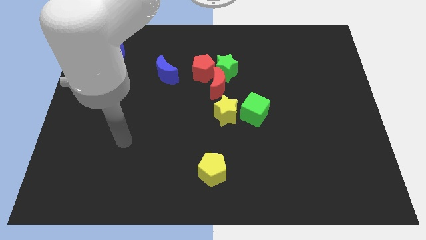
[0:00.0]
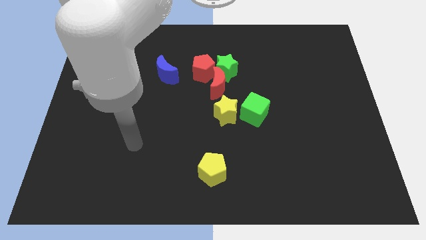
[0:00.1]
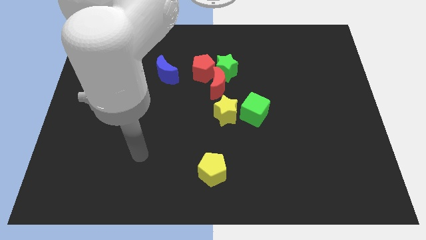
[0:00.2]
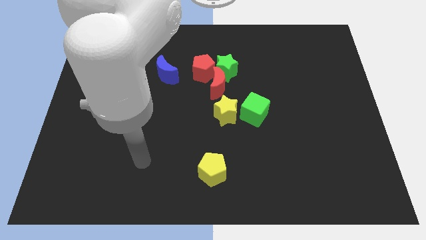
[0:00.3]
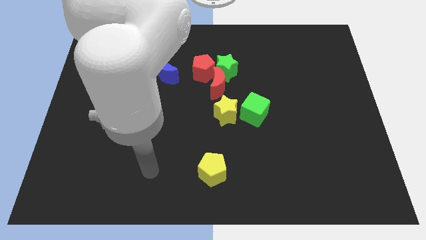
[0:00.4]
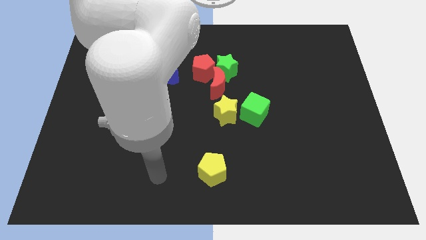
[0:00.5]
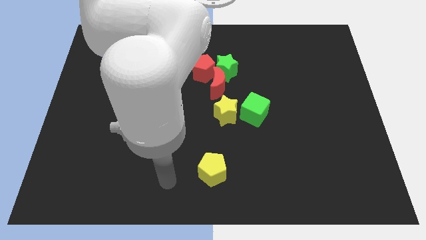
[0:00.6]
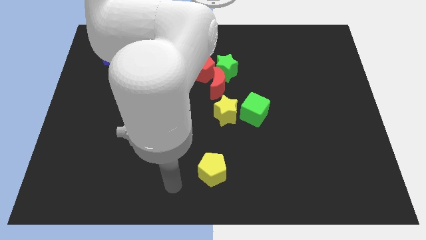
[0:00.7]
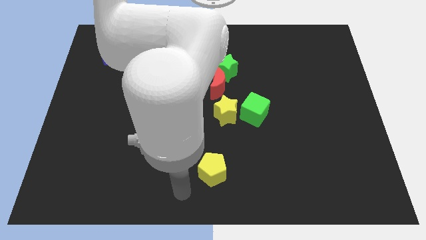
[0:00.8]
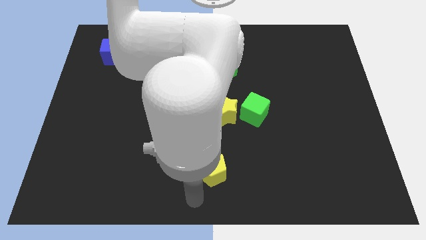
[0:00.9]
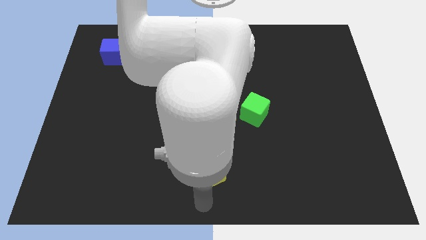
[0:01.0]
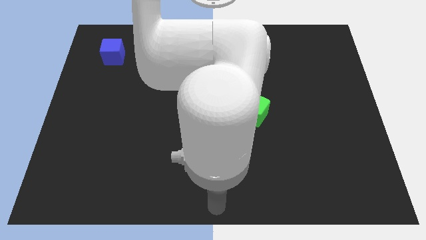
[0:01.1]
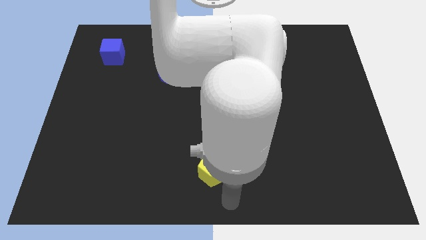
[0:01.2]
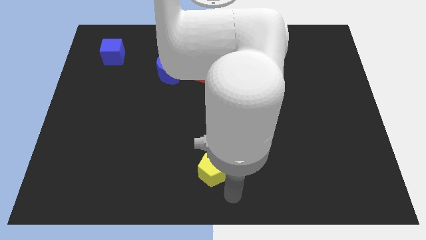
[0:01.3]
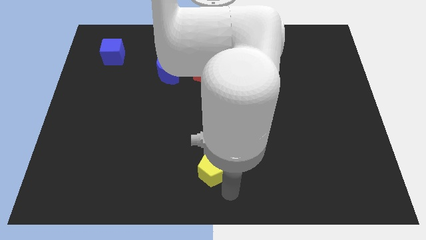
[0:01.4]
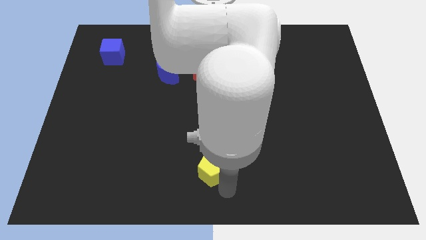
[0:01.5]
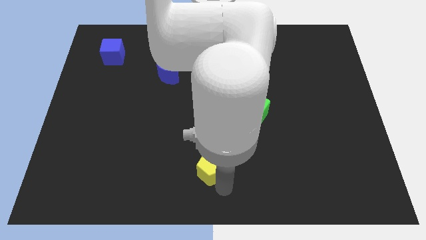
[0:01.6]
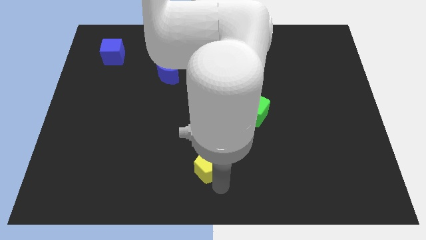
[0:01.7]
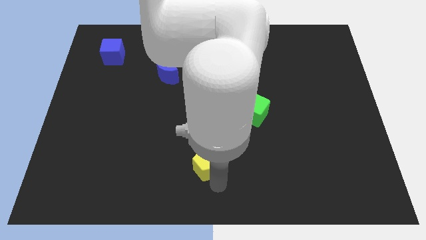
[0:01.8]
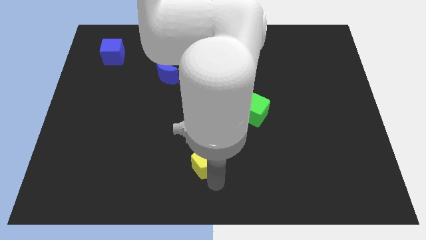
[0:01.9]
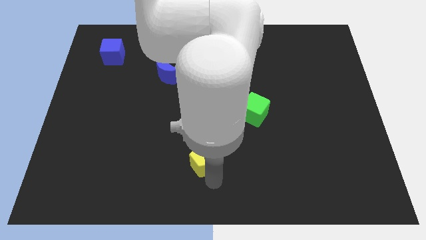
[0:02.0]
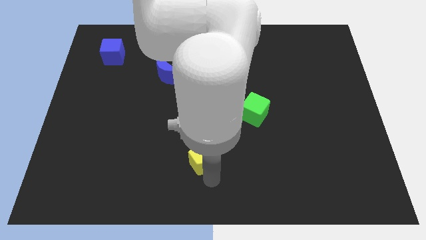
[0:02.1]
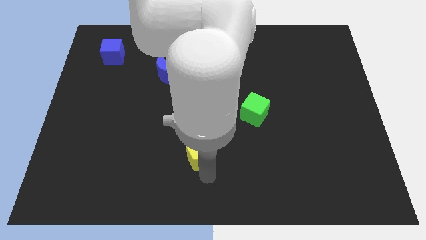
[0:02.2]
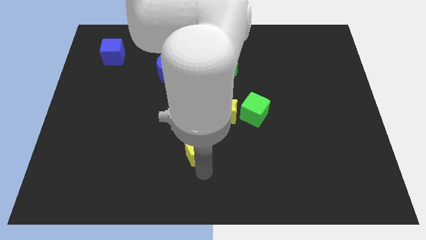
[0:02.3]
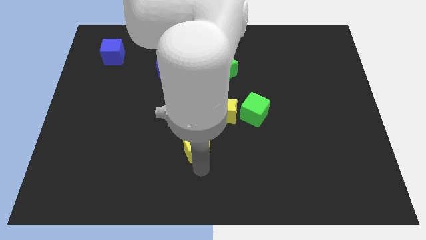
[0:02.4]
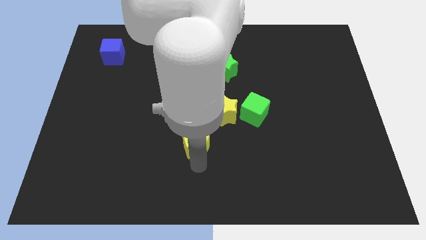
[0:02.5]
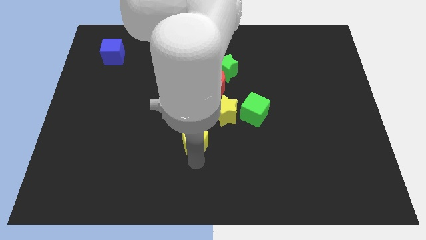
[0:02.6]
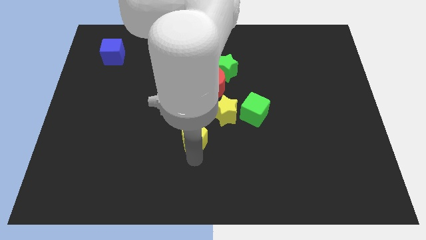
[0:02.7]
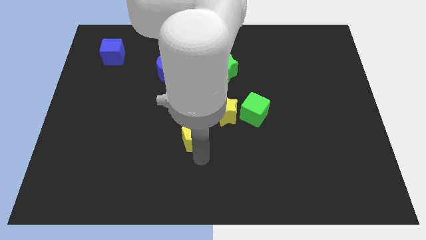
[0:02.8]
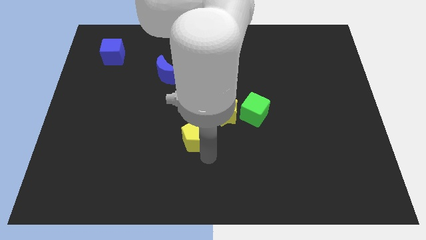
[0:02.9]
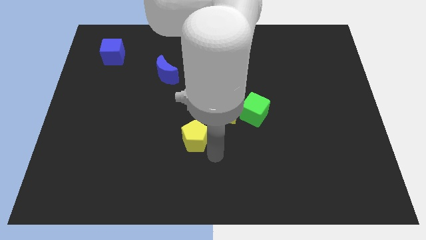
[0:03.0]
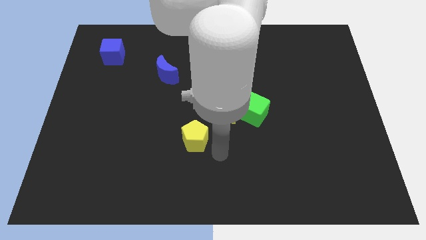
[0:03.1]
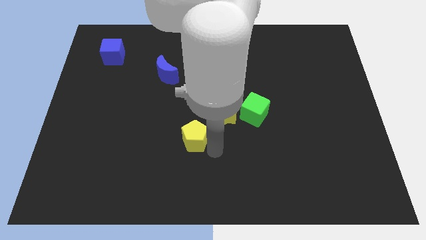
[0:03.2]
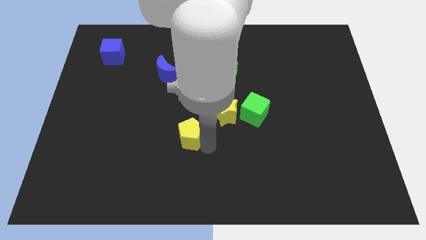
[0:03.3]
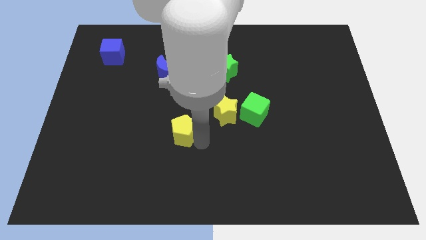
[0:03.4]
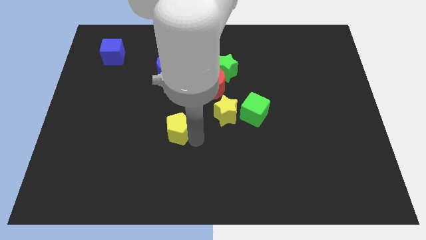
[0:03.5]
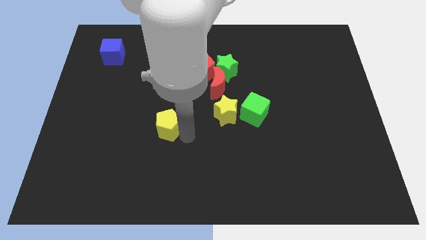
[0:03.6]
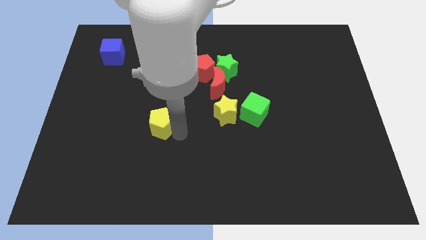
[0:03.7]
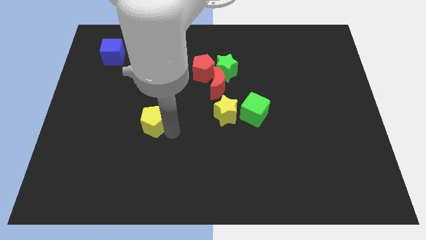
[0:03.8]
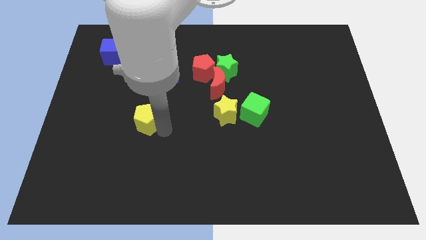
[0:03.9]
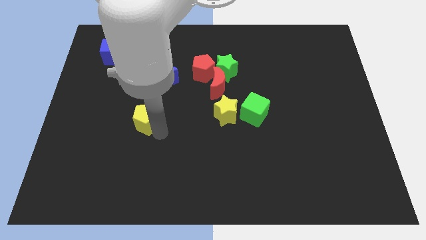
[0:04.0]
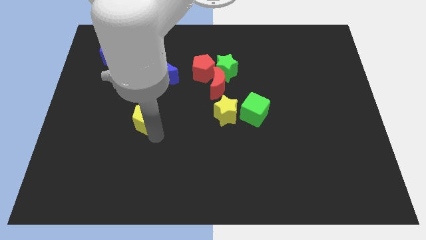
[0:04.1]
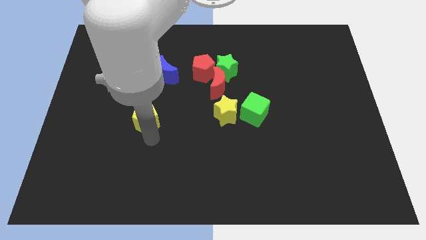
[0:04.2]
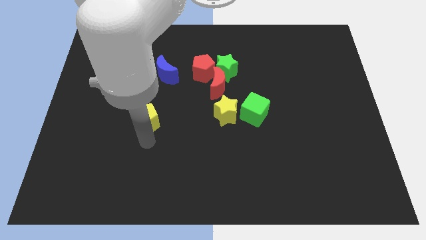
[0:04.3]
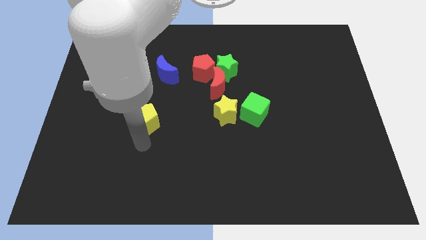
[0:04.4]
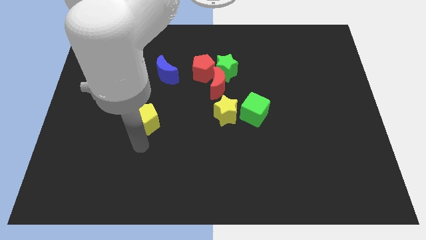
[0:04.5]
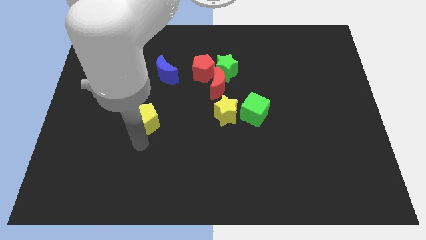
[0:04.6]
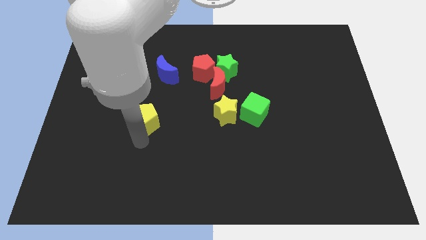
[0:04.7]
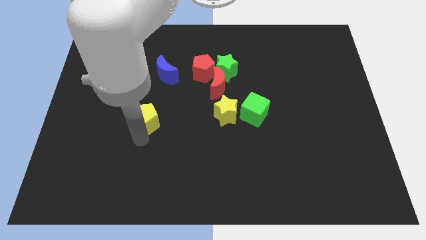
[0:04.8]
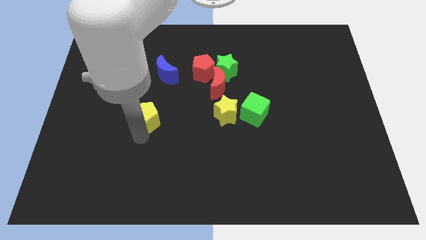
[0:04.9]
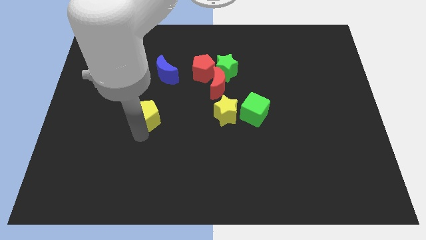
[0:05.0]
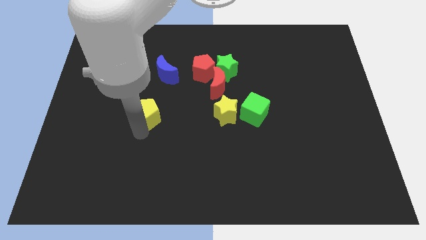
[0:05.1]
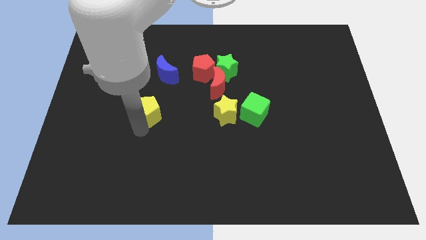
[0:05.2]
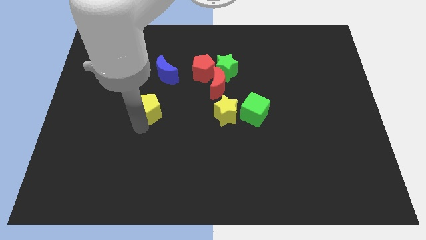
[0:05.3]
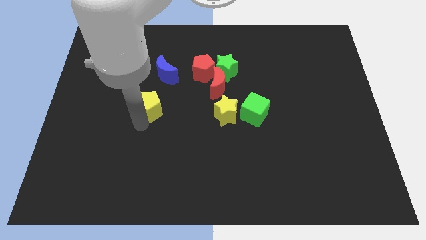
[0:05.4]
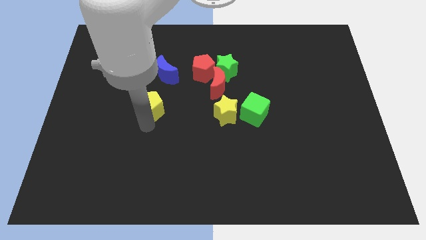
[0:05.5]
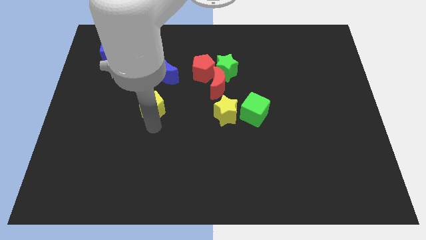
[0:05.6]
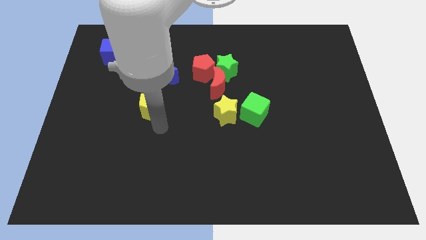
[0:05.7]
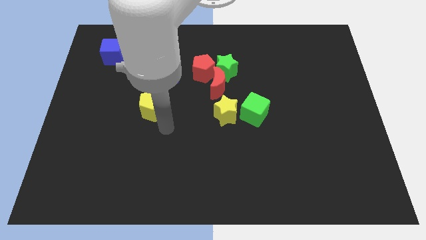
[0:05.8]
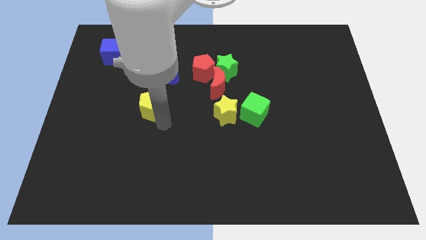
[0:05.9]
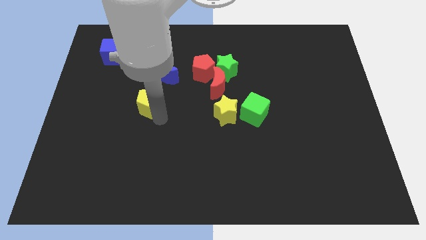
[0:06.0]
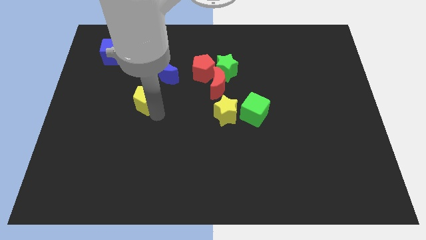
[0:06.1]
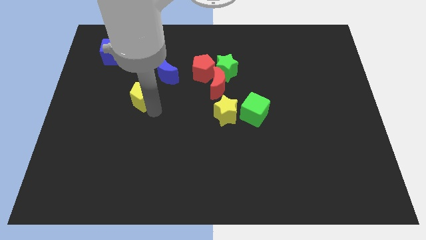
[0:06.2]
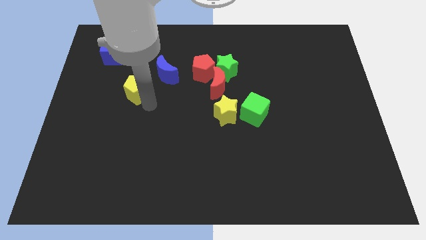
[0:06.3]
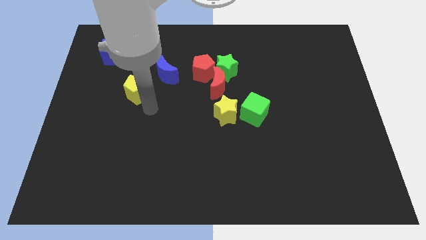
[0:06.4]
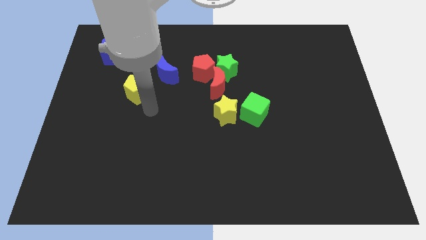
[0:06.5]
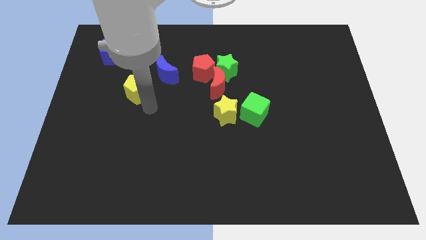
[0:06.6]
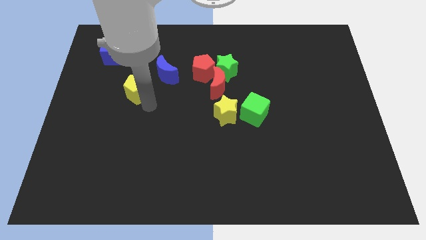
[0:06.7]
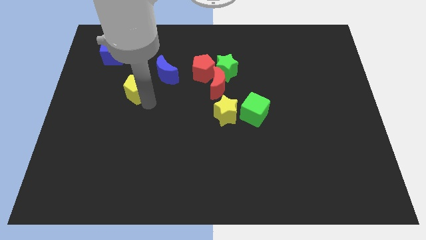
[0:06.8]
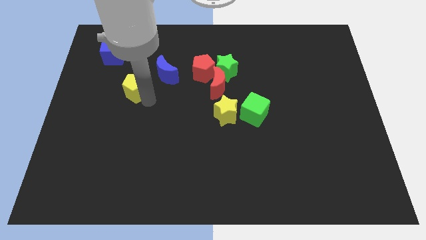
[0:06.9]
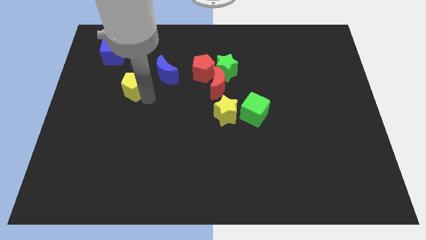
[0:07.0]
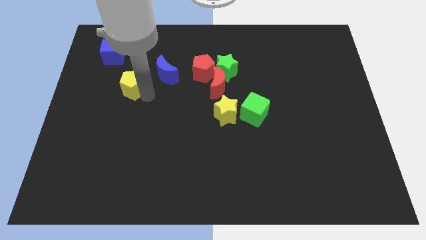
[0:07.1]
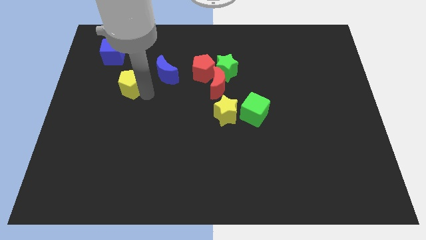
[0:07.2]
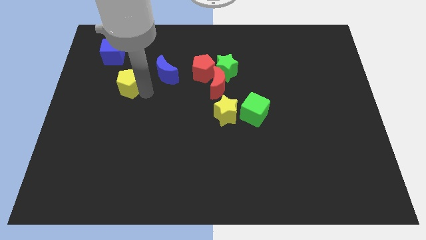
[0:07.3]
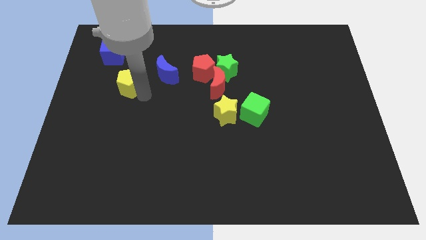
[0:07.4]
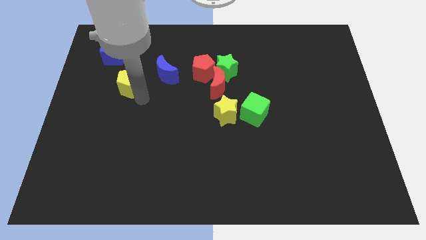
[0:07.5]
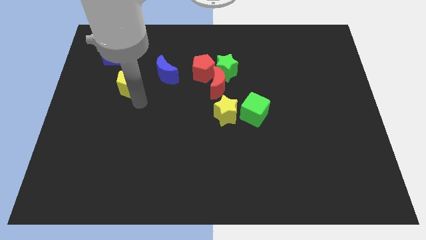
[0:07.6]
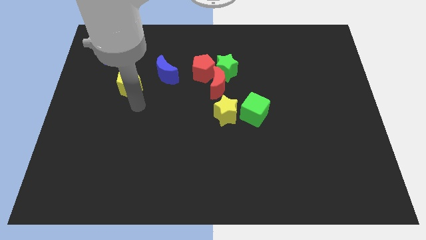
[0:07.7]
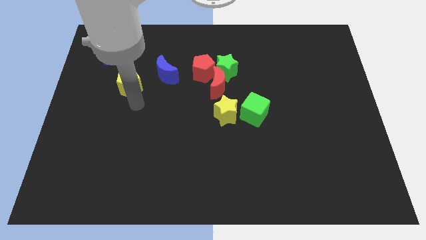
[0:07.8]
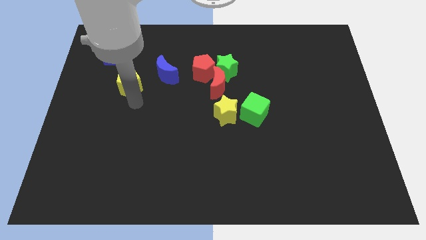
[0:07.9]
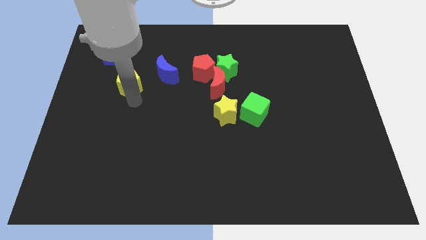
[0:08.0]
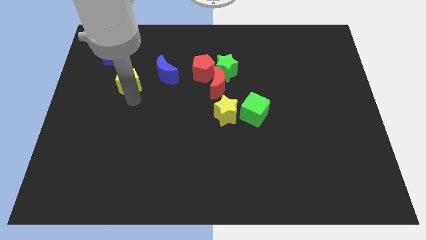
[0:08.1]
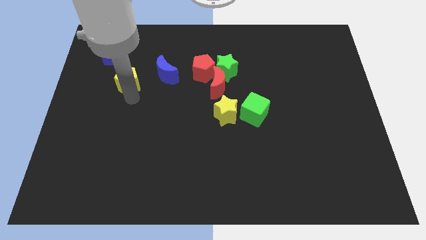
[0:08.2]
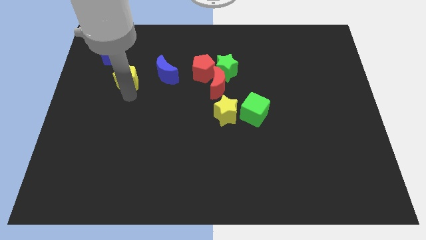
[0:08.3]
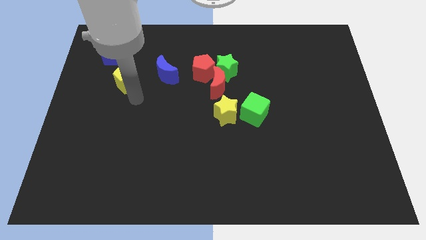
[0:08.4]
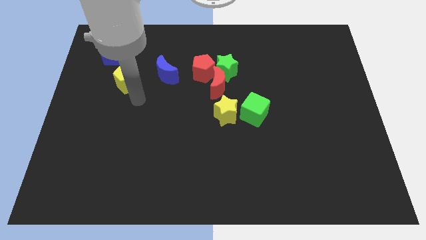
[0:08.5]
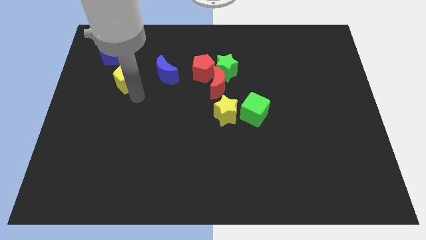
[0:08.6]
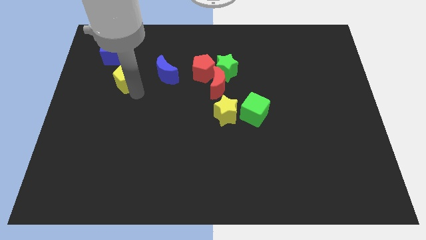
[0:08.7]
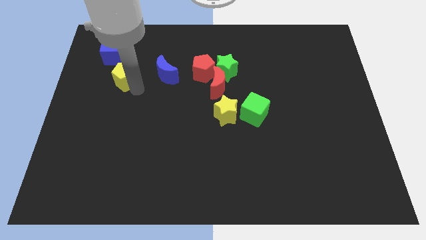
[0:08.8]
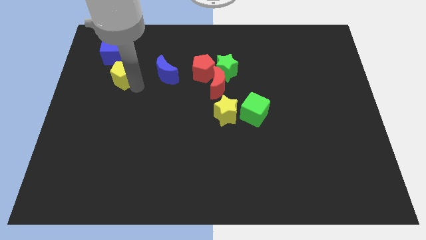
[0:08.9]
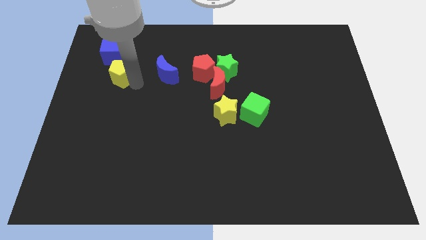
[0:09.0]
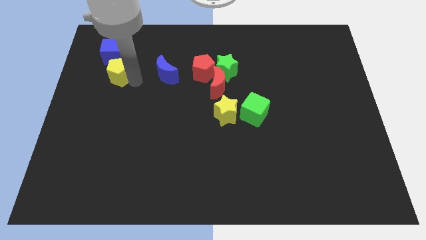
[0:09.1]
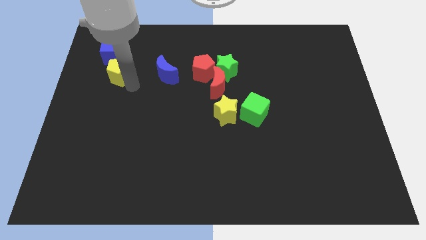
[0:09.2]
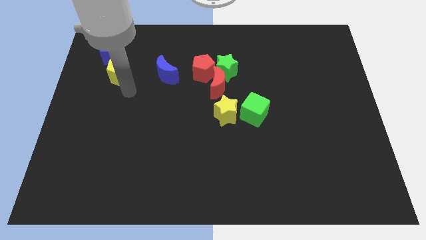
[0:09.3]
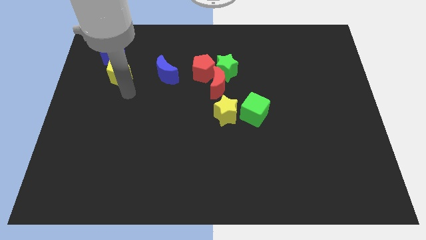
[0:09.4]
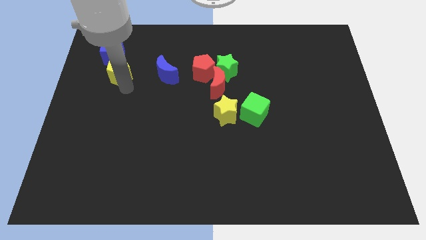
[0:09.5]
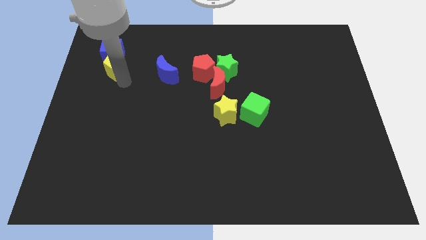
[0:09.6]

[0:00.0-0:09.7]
push the yellow pentagon next to the blue cube
